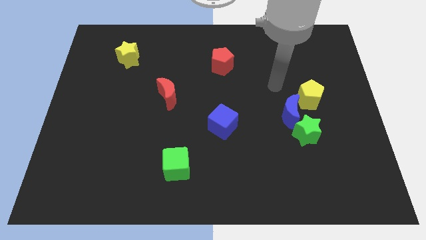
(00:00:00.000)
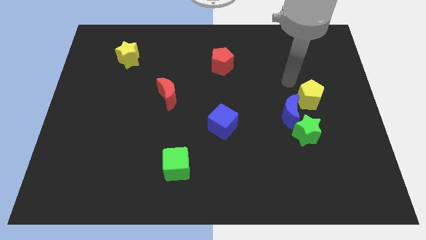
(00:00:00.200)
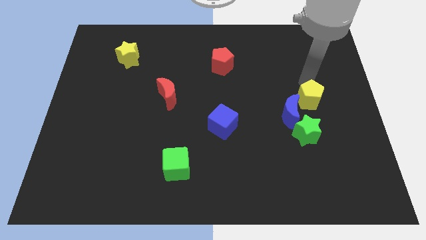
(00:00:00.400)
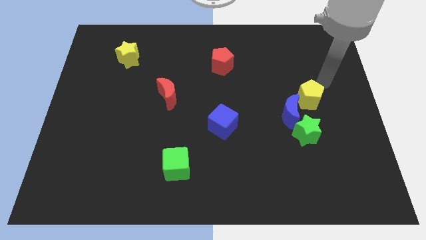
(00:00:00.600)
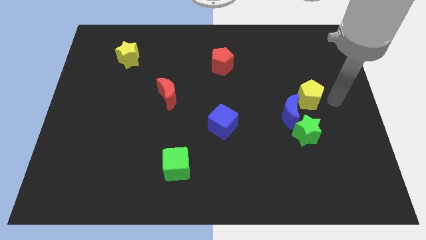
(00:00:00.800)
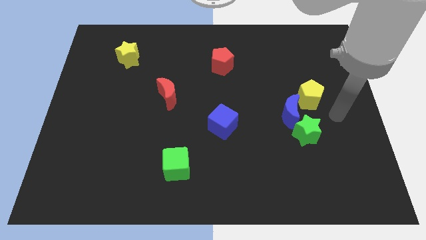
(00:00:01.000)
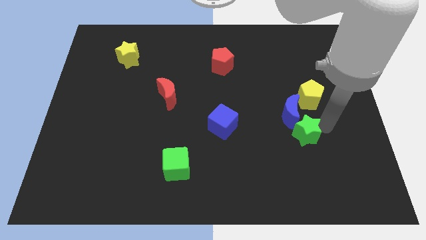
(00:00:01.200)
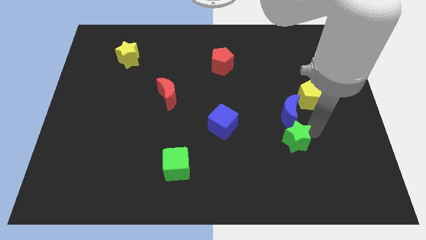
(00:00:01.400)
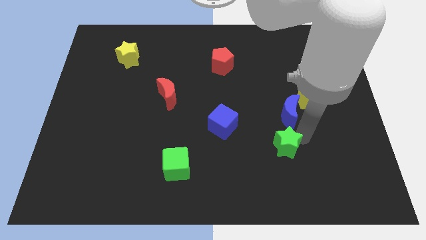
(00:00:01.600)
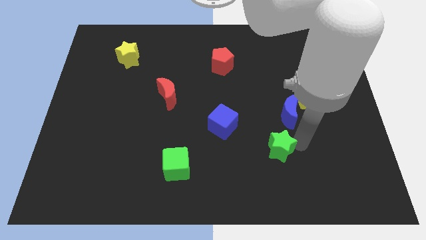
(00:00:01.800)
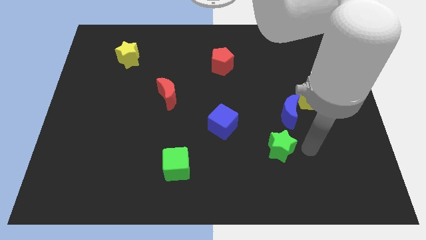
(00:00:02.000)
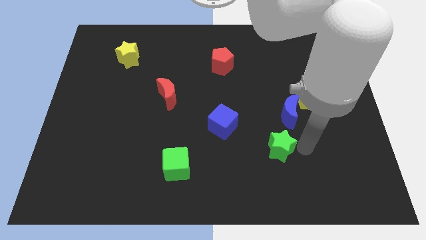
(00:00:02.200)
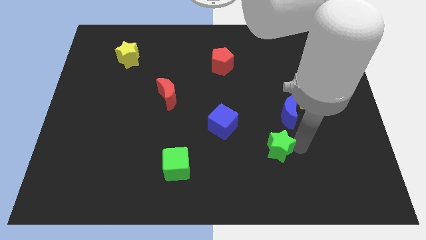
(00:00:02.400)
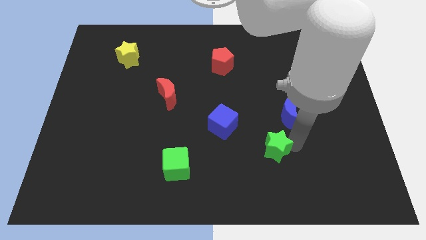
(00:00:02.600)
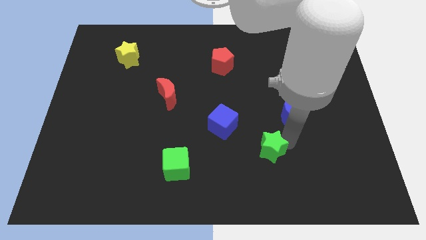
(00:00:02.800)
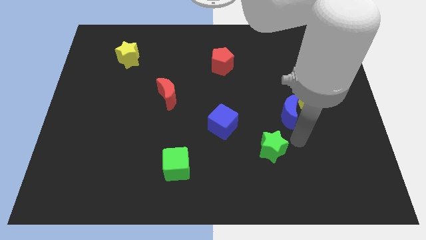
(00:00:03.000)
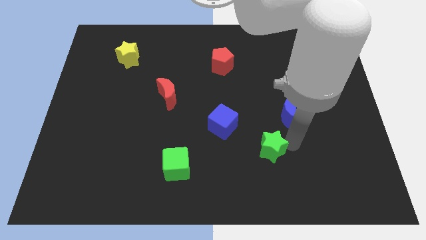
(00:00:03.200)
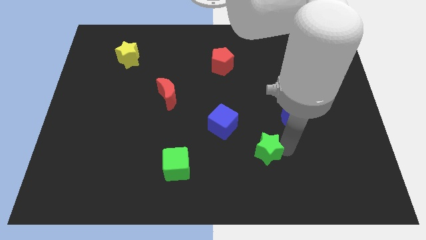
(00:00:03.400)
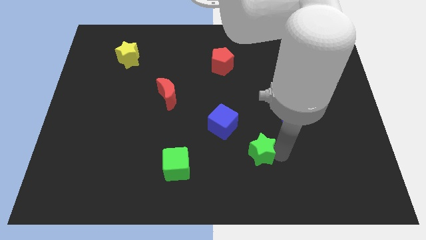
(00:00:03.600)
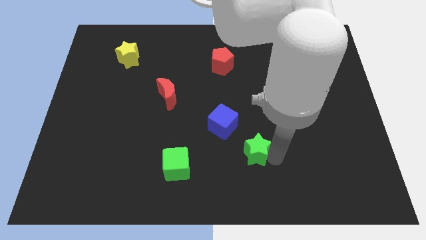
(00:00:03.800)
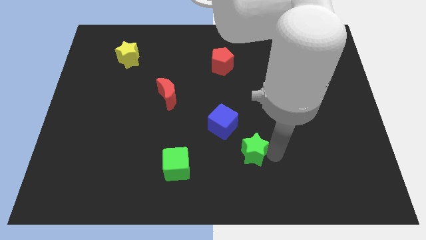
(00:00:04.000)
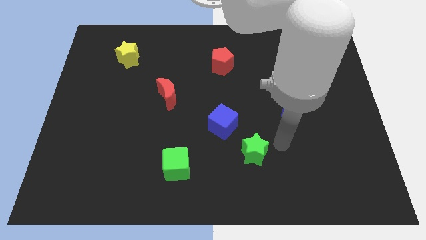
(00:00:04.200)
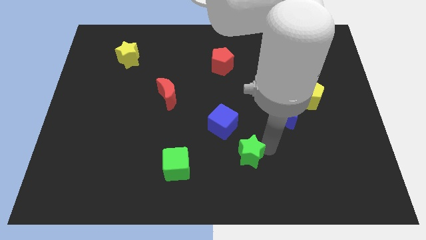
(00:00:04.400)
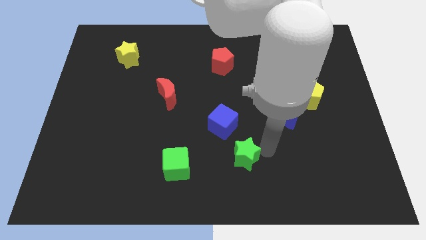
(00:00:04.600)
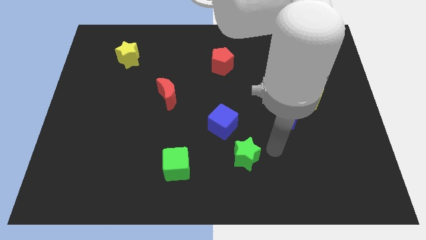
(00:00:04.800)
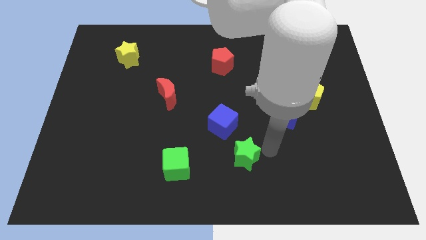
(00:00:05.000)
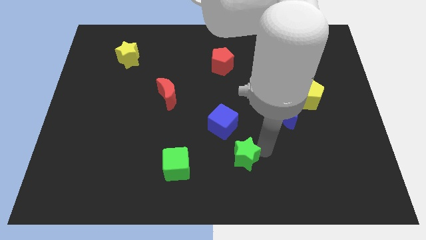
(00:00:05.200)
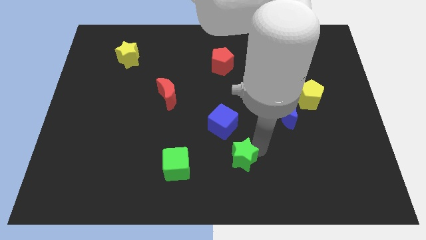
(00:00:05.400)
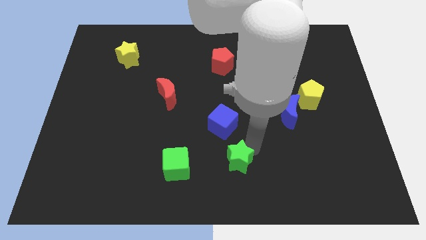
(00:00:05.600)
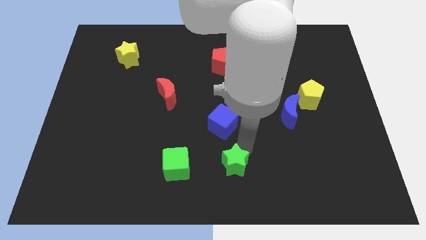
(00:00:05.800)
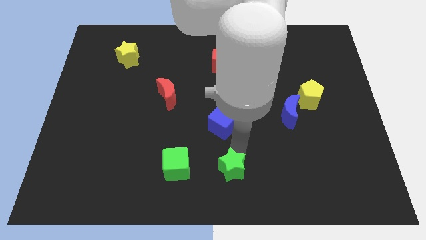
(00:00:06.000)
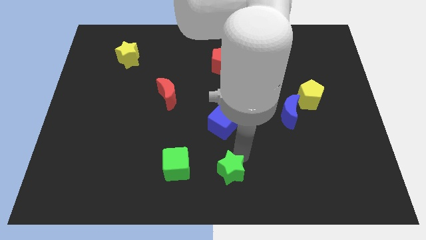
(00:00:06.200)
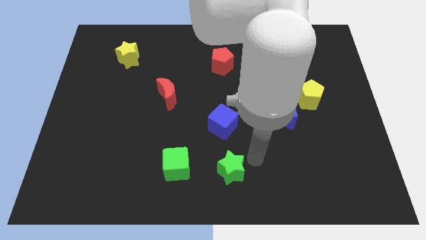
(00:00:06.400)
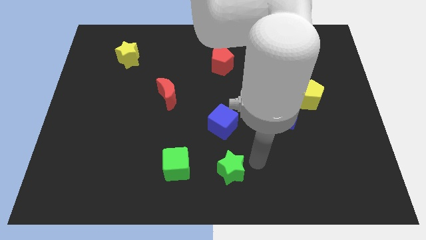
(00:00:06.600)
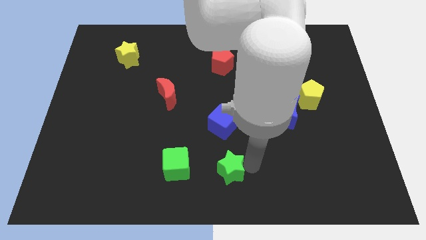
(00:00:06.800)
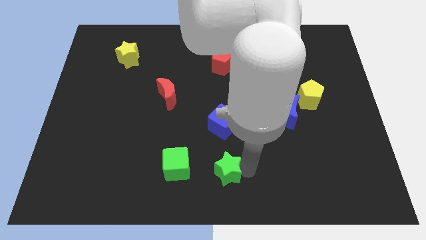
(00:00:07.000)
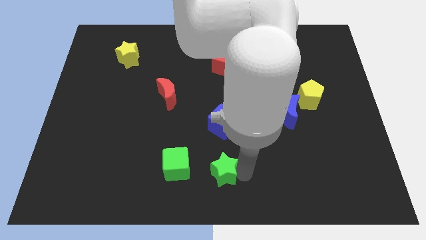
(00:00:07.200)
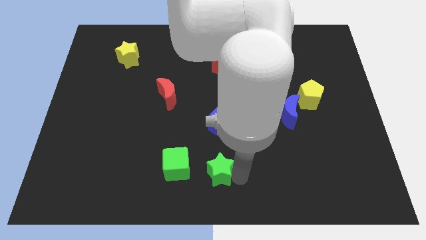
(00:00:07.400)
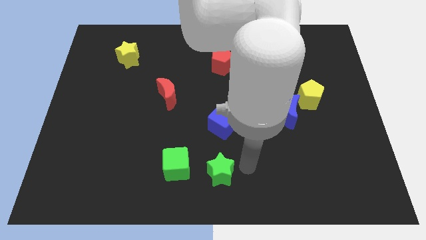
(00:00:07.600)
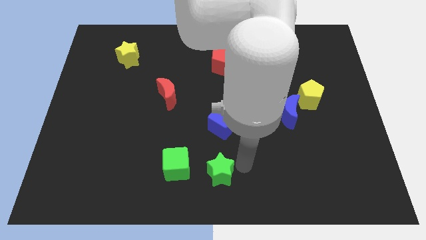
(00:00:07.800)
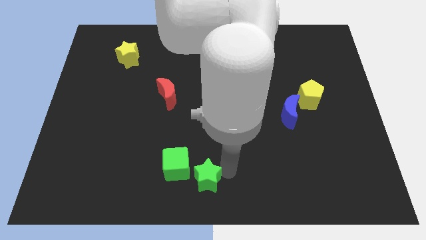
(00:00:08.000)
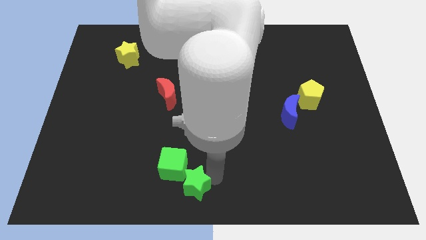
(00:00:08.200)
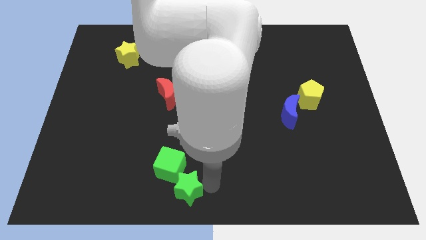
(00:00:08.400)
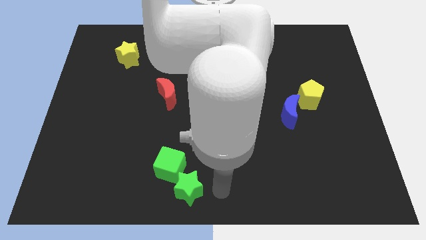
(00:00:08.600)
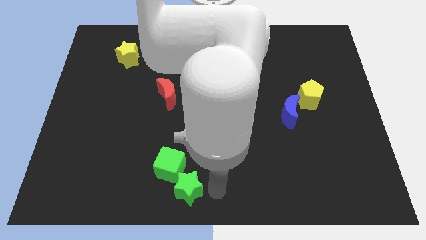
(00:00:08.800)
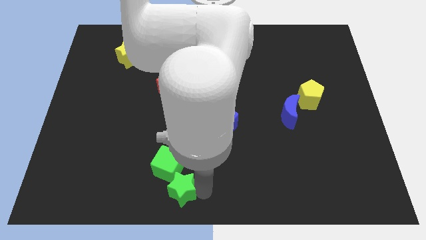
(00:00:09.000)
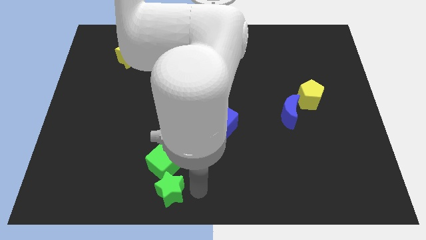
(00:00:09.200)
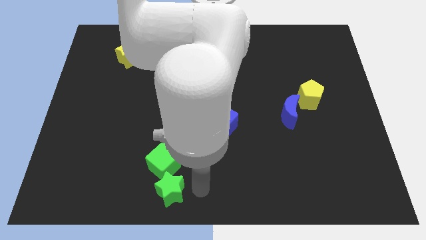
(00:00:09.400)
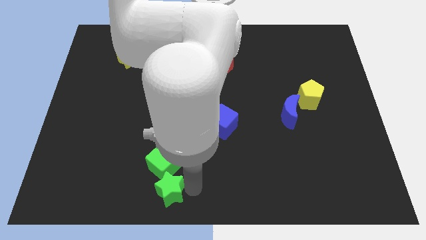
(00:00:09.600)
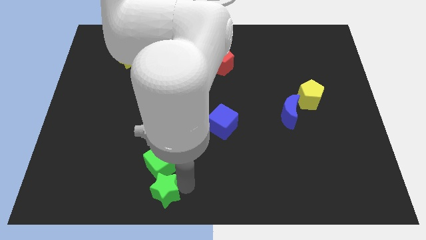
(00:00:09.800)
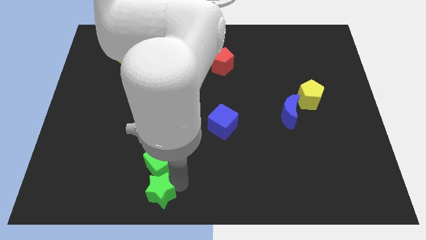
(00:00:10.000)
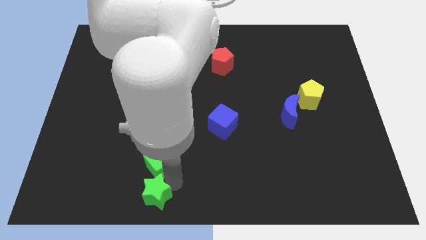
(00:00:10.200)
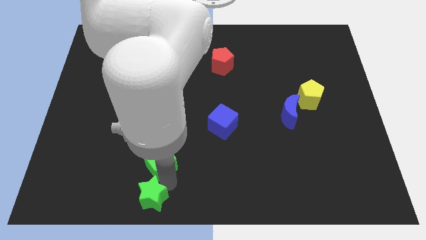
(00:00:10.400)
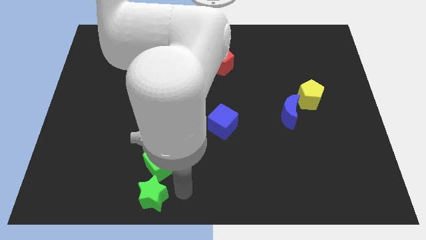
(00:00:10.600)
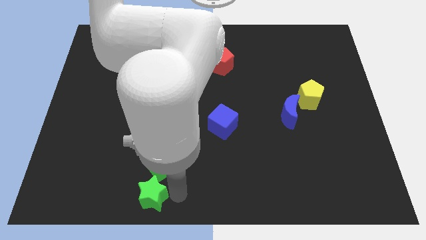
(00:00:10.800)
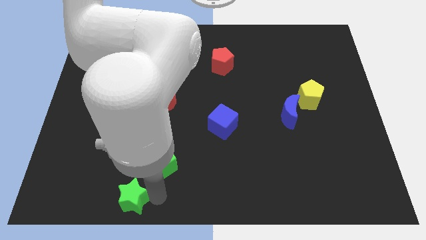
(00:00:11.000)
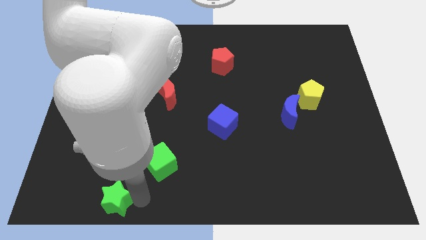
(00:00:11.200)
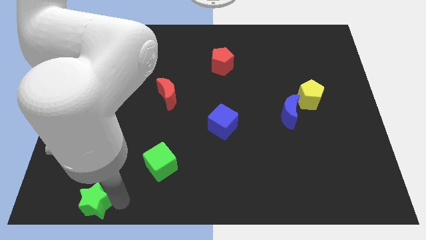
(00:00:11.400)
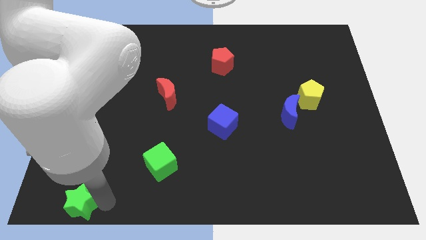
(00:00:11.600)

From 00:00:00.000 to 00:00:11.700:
push the green star to the bottom left of the board
